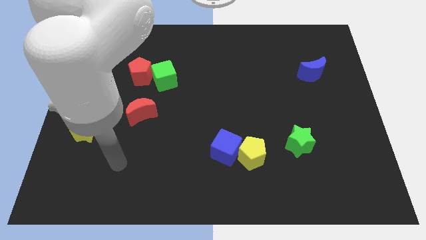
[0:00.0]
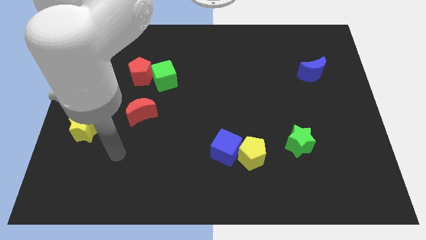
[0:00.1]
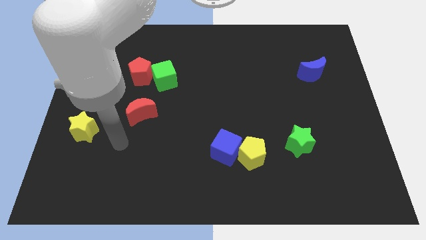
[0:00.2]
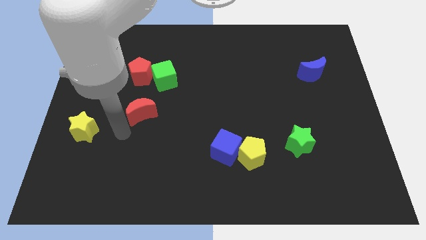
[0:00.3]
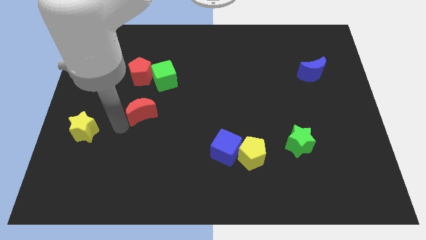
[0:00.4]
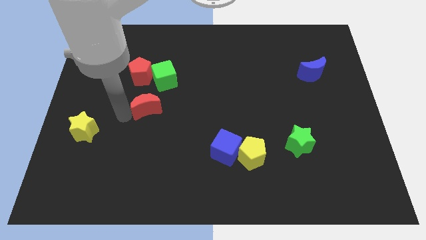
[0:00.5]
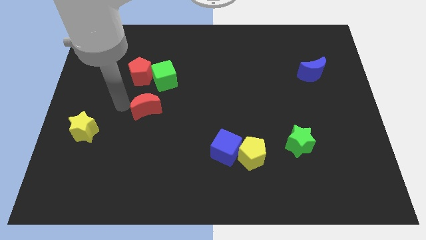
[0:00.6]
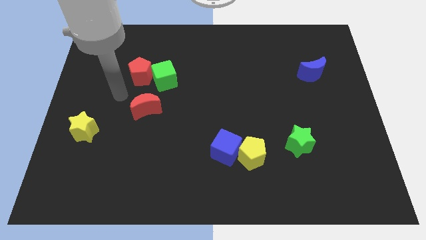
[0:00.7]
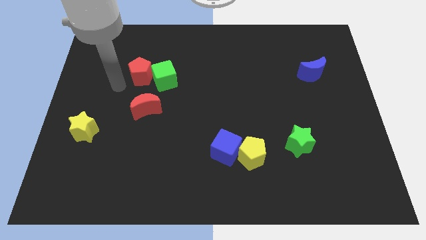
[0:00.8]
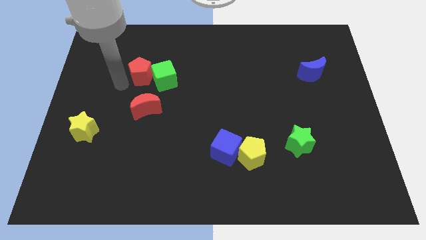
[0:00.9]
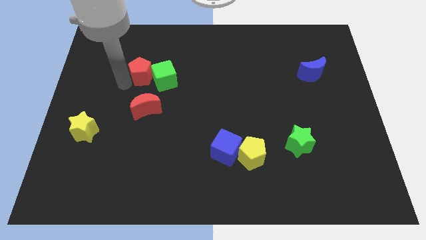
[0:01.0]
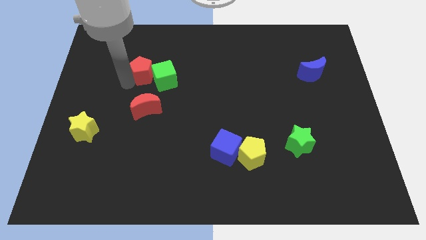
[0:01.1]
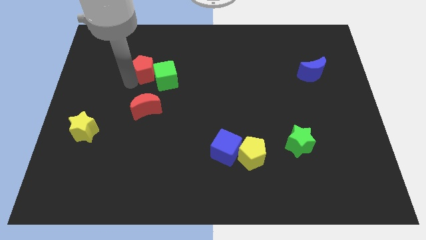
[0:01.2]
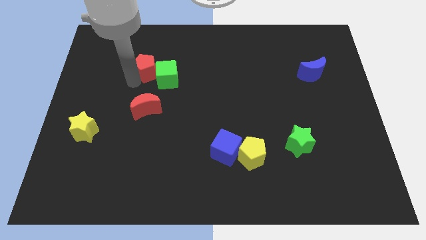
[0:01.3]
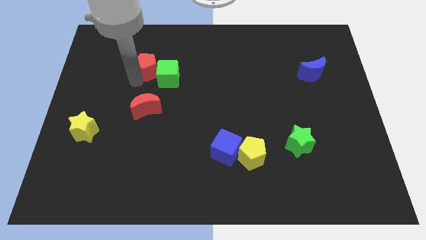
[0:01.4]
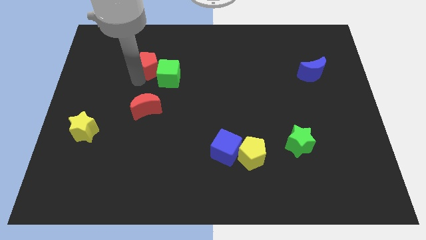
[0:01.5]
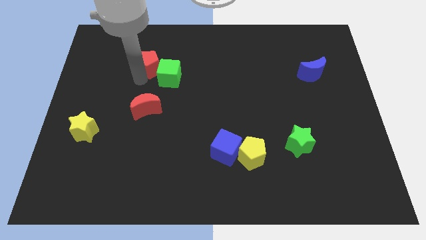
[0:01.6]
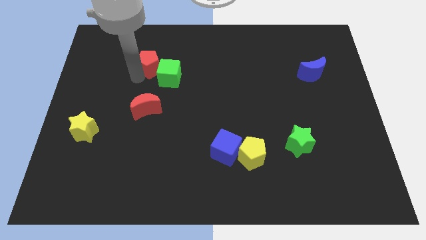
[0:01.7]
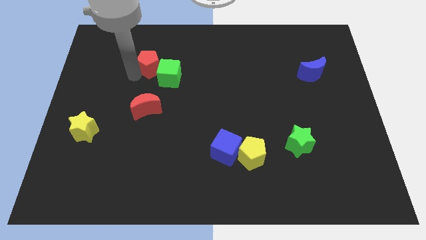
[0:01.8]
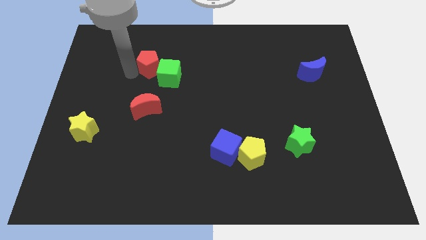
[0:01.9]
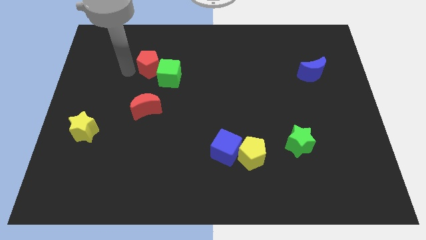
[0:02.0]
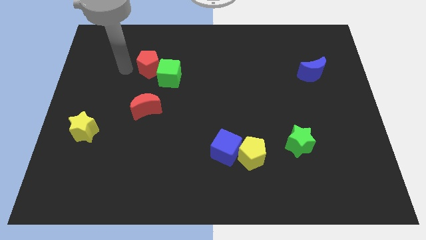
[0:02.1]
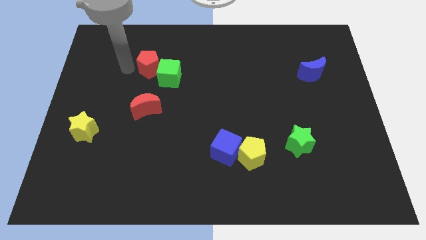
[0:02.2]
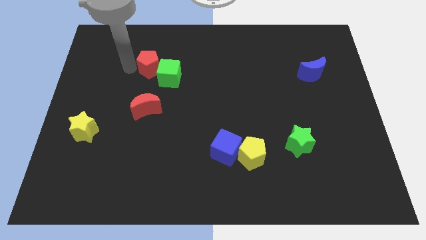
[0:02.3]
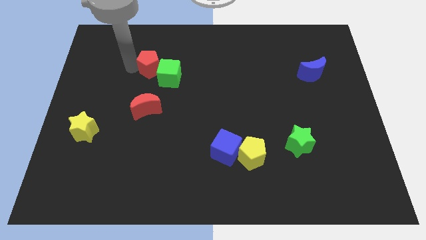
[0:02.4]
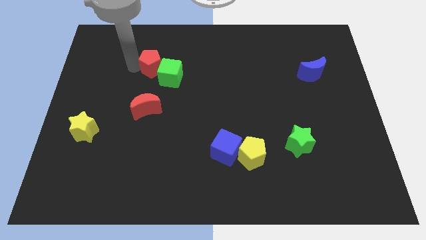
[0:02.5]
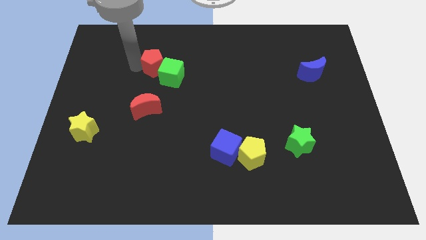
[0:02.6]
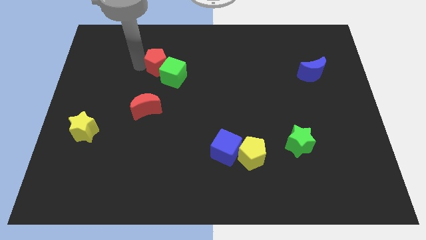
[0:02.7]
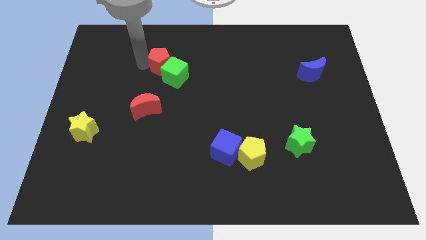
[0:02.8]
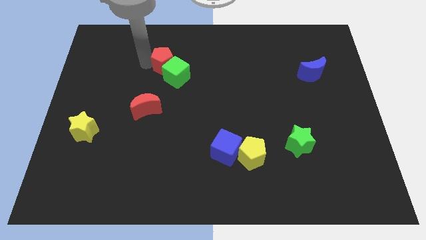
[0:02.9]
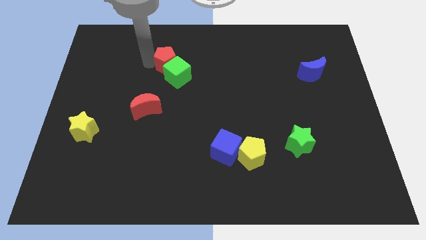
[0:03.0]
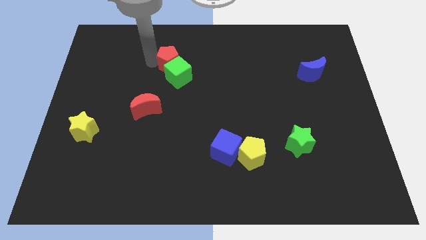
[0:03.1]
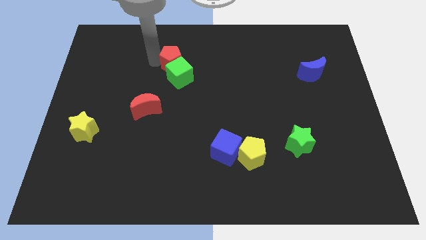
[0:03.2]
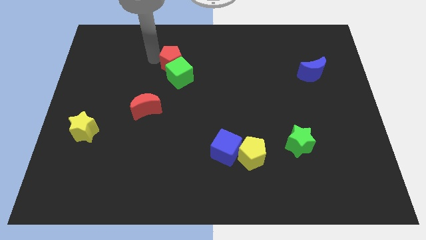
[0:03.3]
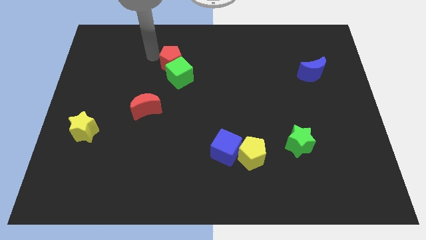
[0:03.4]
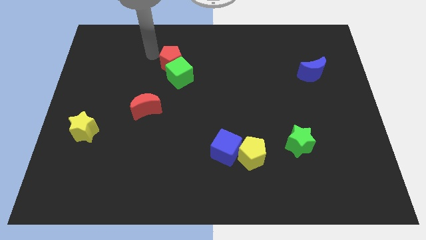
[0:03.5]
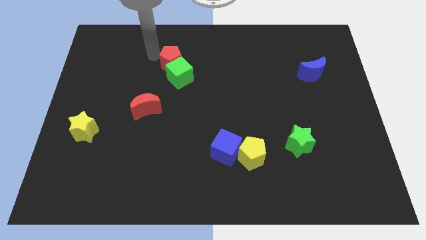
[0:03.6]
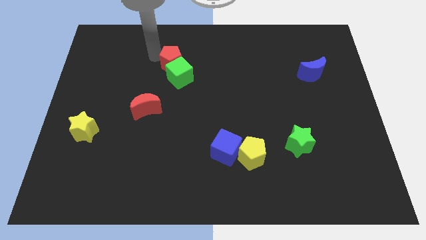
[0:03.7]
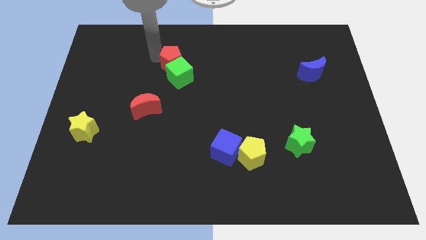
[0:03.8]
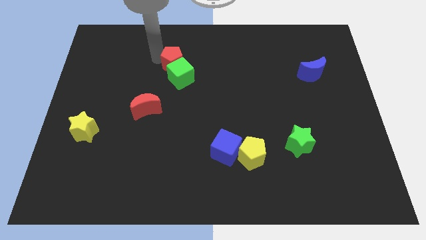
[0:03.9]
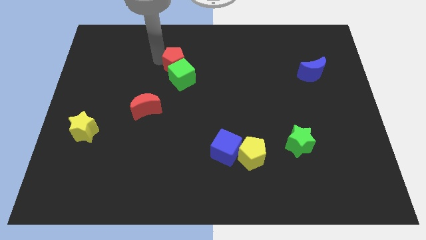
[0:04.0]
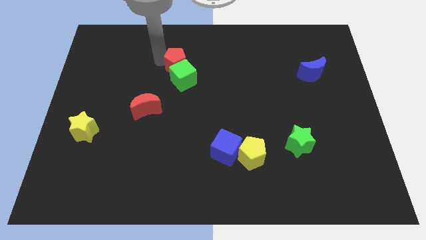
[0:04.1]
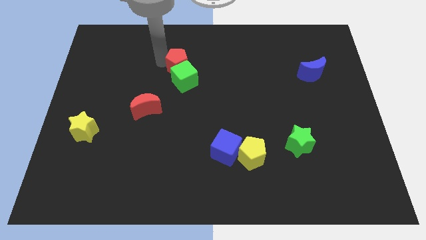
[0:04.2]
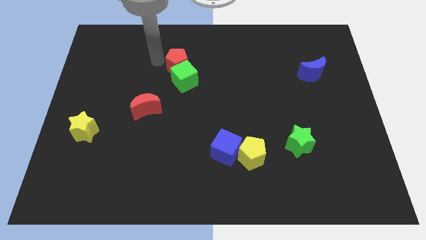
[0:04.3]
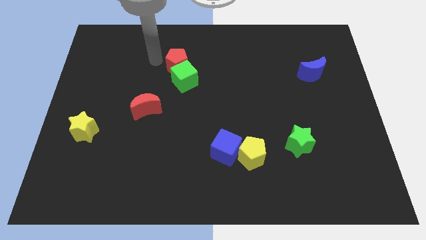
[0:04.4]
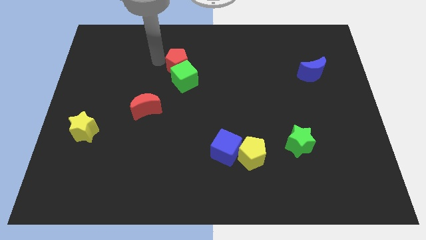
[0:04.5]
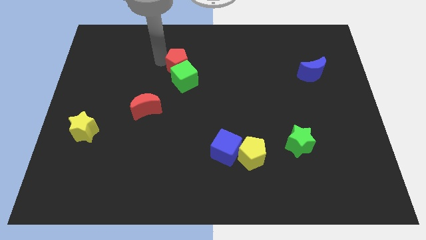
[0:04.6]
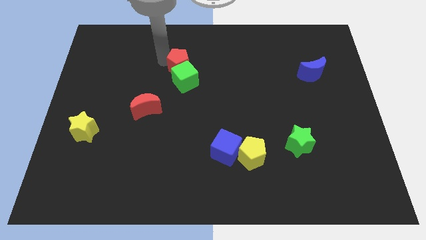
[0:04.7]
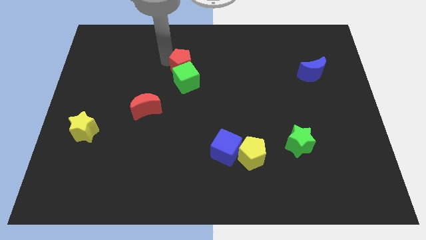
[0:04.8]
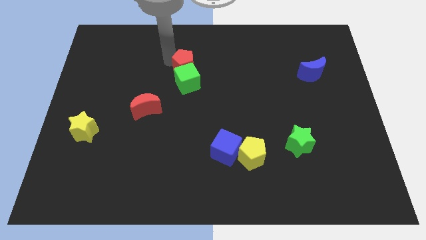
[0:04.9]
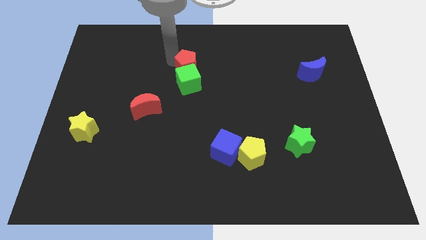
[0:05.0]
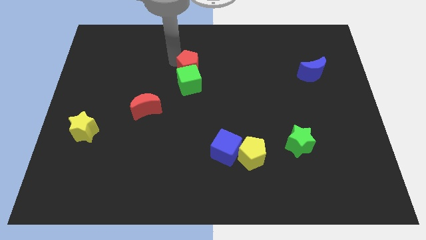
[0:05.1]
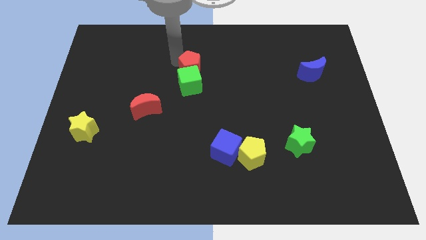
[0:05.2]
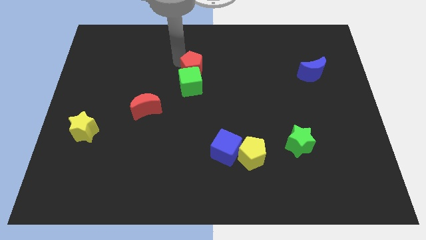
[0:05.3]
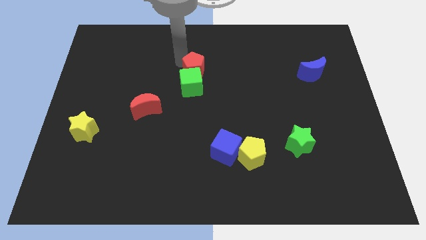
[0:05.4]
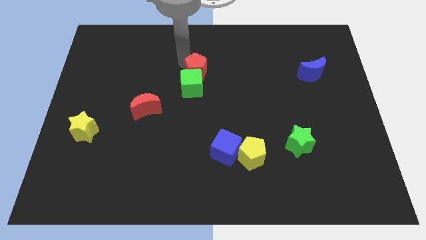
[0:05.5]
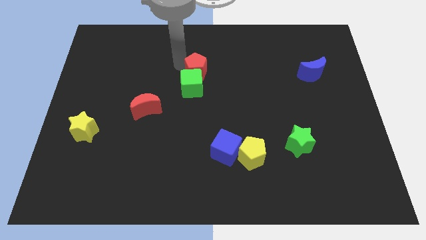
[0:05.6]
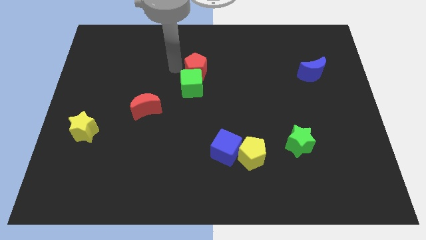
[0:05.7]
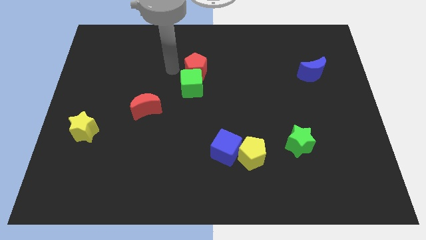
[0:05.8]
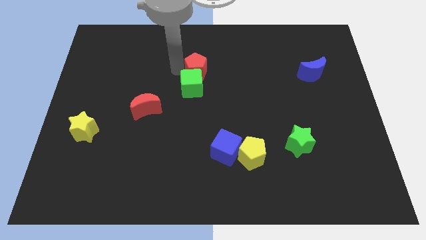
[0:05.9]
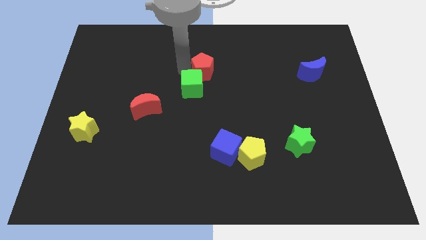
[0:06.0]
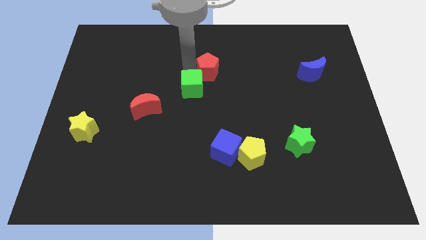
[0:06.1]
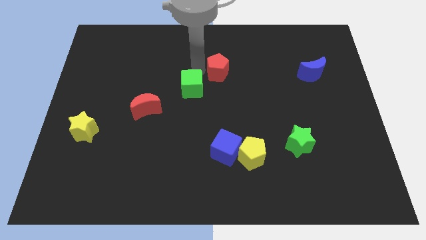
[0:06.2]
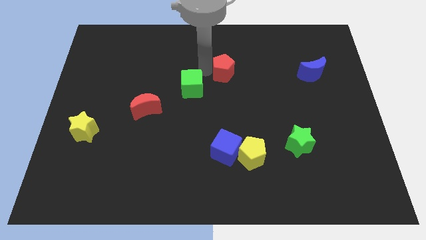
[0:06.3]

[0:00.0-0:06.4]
slide the red pentagon right

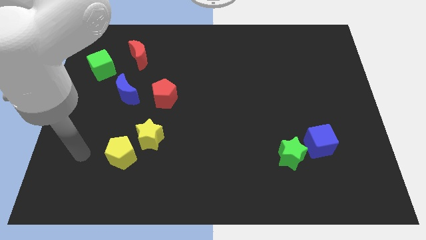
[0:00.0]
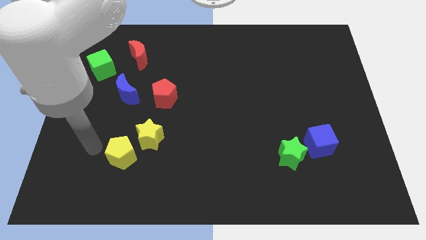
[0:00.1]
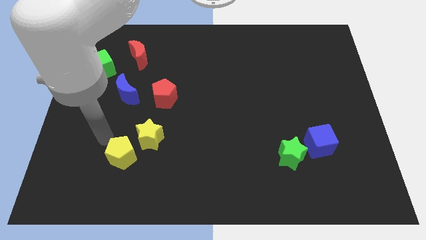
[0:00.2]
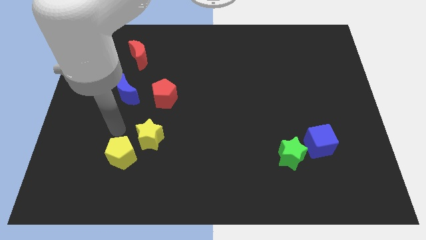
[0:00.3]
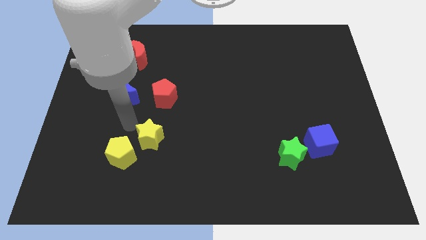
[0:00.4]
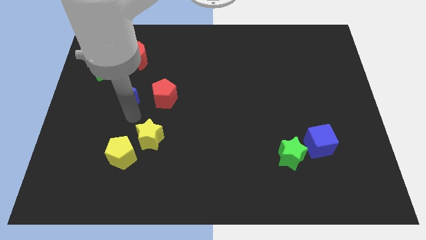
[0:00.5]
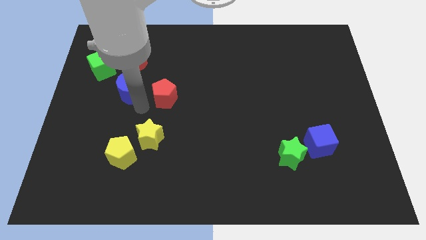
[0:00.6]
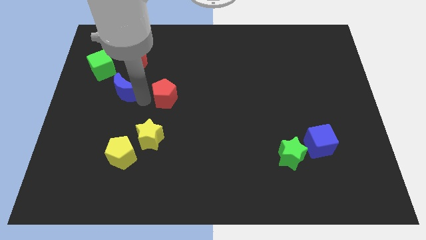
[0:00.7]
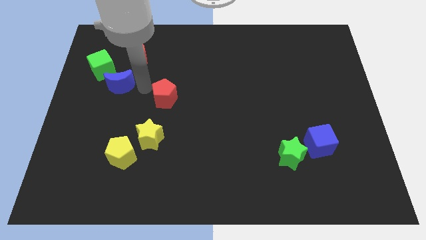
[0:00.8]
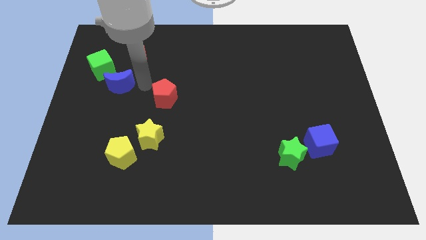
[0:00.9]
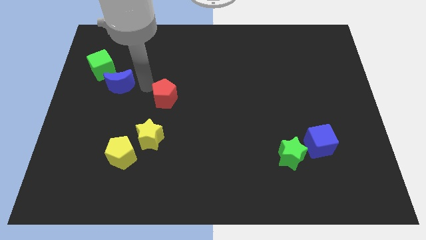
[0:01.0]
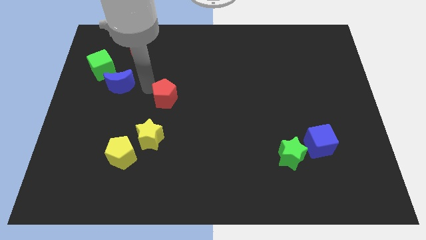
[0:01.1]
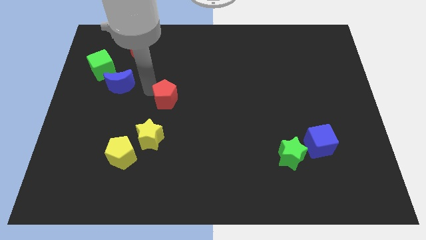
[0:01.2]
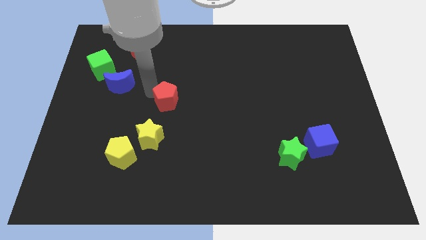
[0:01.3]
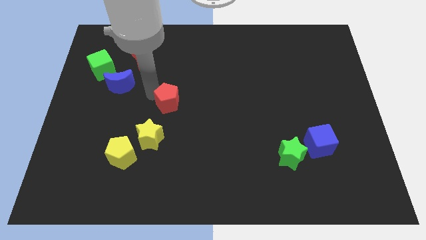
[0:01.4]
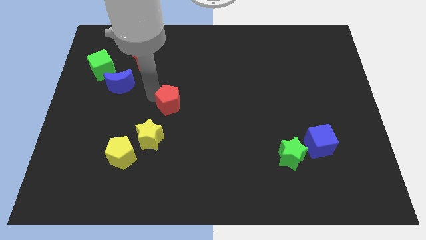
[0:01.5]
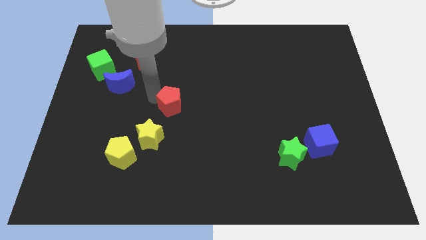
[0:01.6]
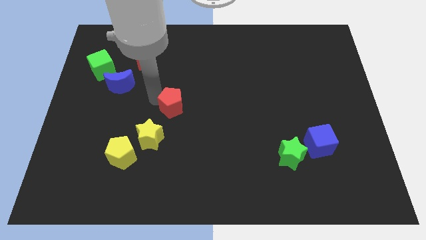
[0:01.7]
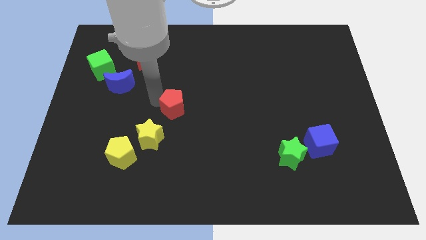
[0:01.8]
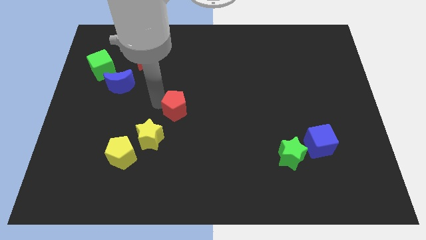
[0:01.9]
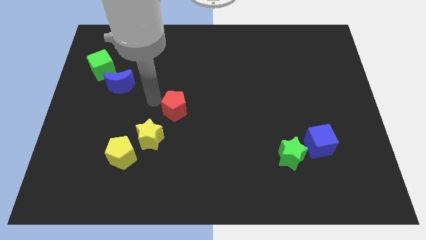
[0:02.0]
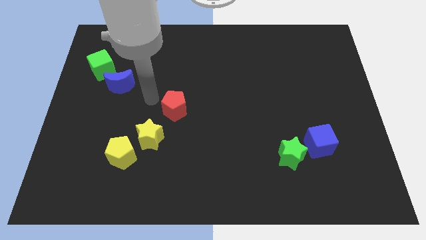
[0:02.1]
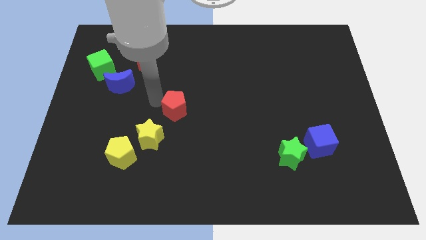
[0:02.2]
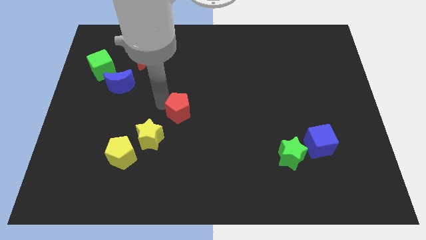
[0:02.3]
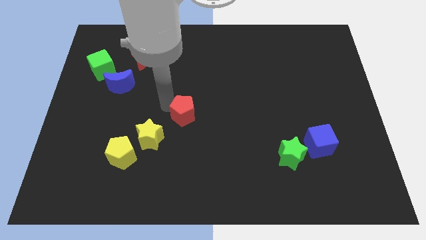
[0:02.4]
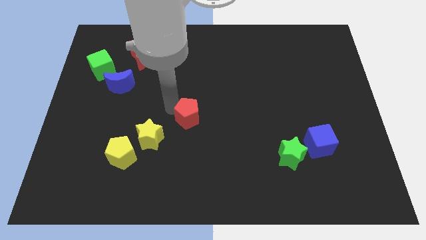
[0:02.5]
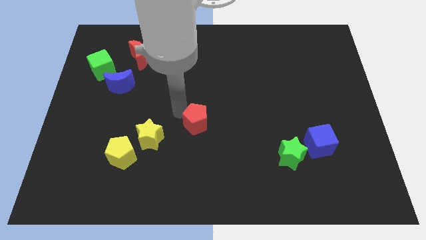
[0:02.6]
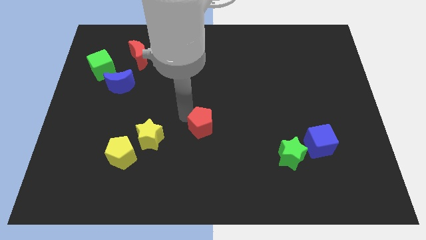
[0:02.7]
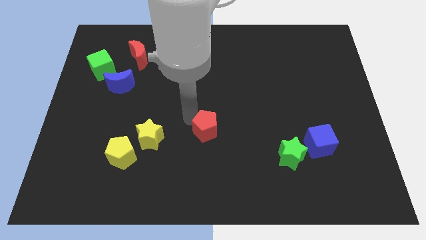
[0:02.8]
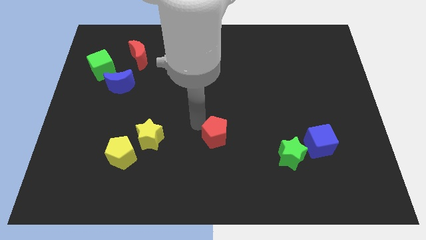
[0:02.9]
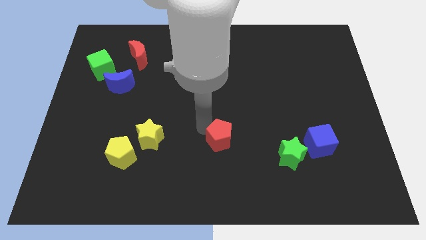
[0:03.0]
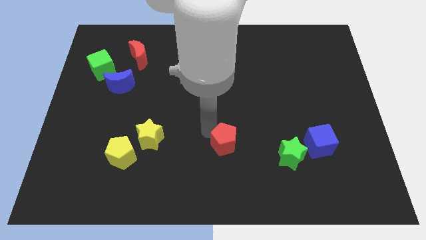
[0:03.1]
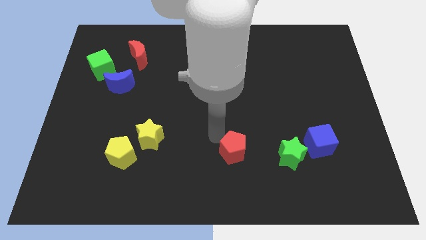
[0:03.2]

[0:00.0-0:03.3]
push the red pentagon down and then to the right
